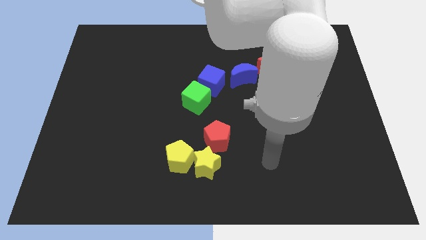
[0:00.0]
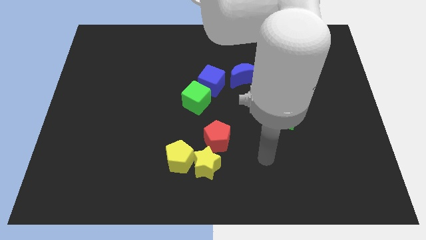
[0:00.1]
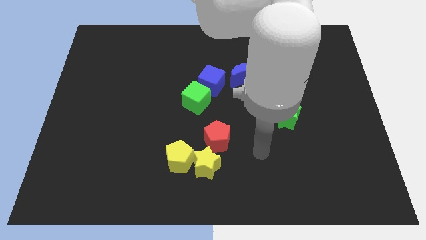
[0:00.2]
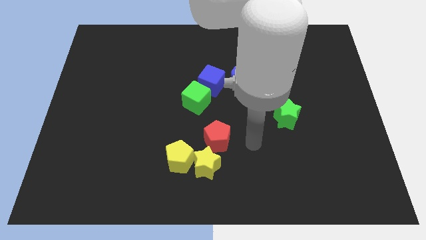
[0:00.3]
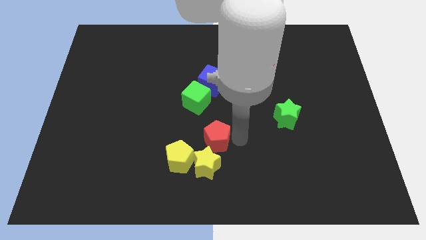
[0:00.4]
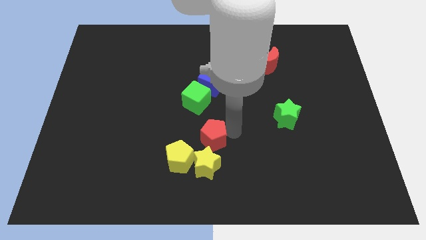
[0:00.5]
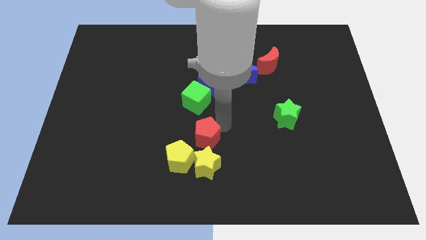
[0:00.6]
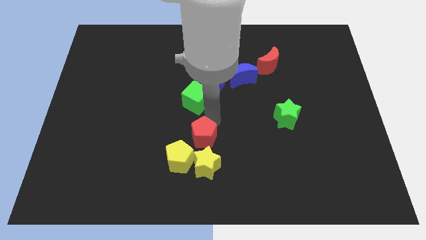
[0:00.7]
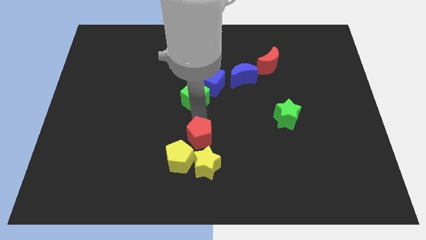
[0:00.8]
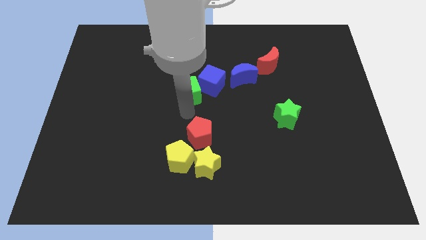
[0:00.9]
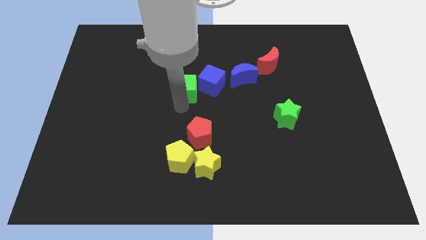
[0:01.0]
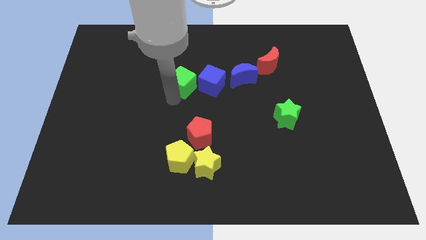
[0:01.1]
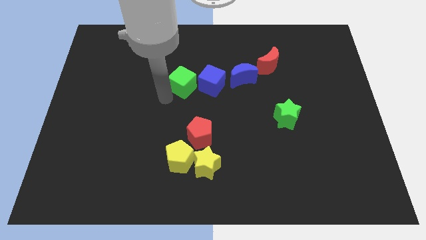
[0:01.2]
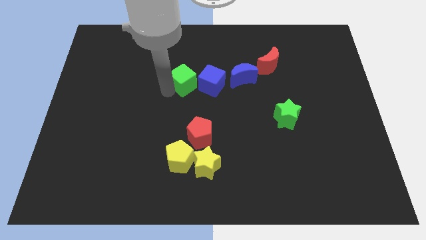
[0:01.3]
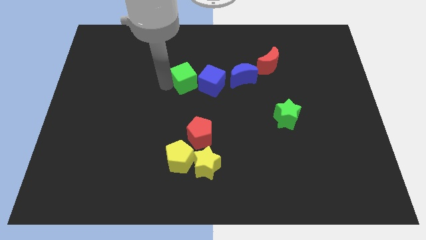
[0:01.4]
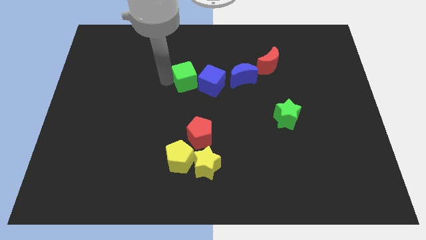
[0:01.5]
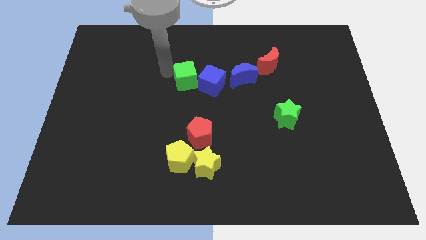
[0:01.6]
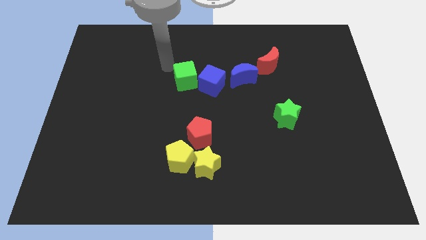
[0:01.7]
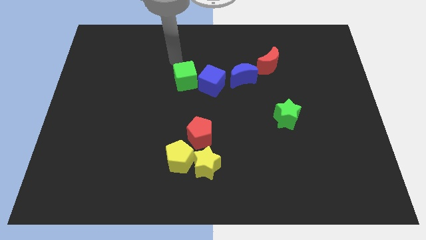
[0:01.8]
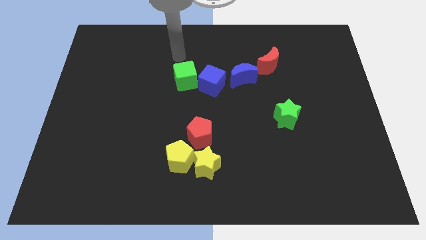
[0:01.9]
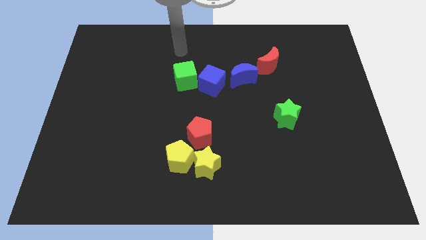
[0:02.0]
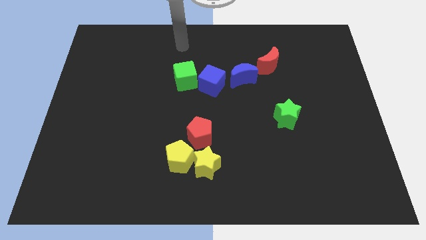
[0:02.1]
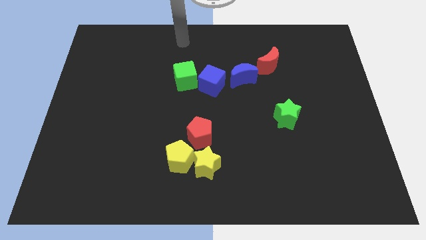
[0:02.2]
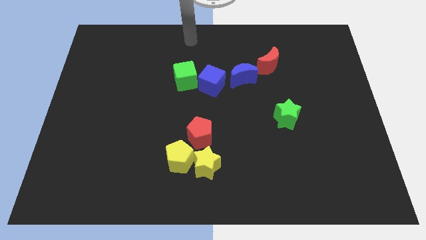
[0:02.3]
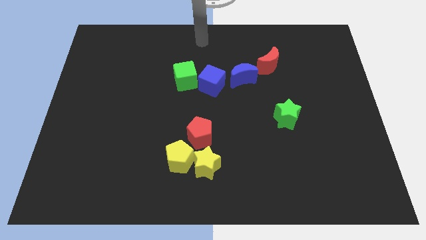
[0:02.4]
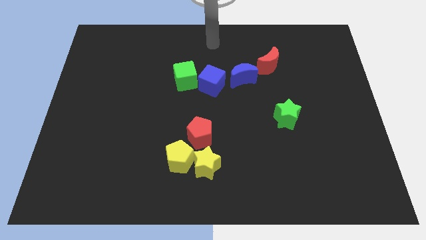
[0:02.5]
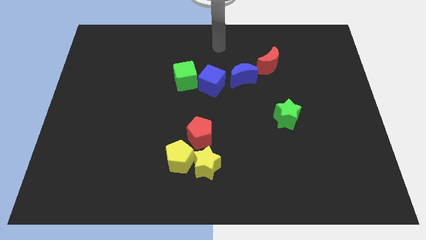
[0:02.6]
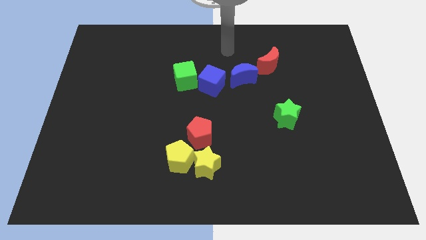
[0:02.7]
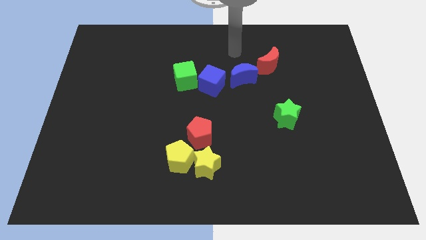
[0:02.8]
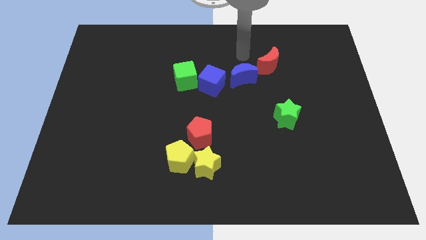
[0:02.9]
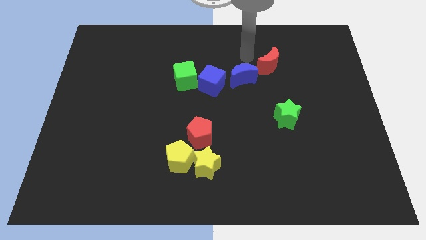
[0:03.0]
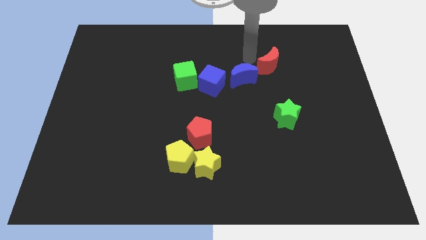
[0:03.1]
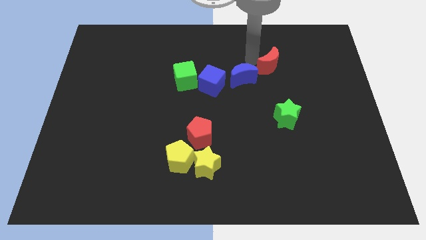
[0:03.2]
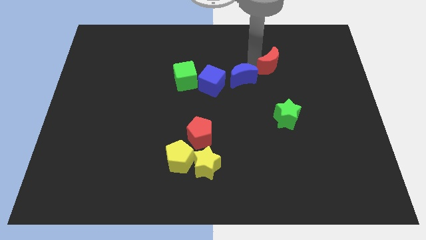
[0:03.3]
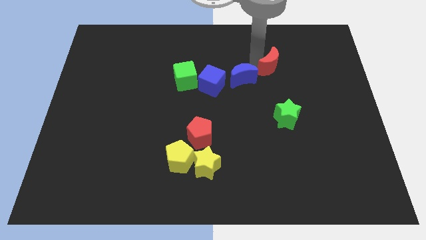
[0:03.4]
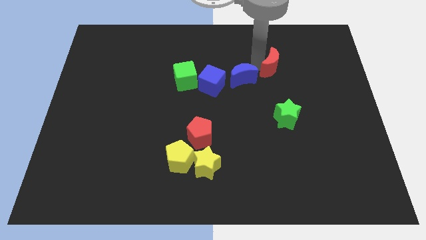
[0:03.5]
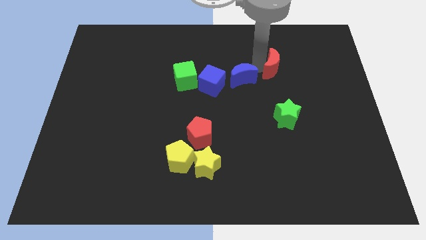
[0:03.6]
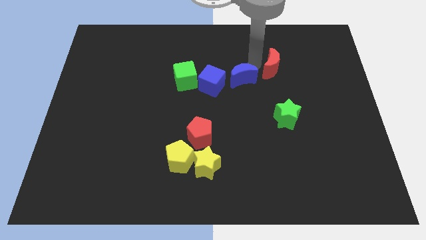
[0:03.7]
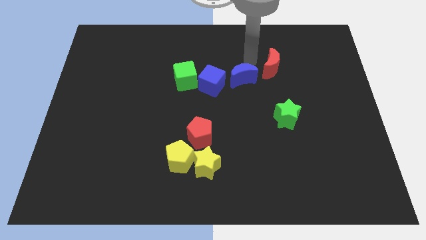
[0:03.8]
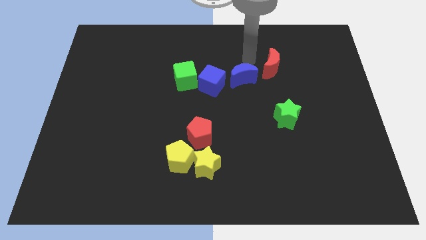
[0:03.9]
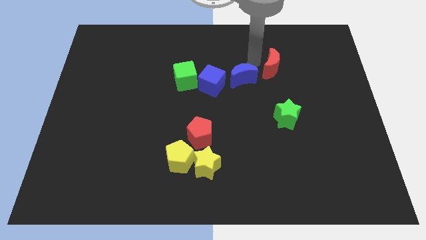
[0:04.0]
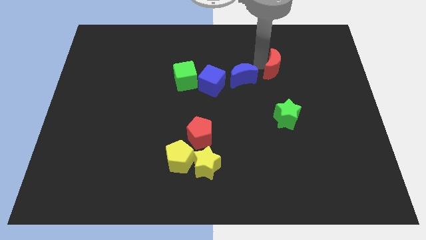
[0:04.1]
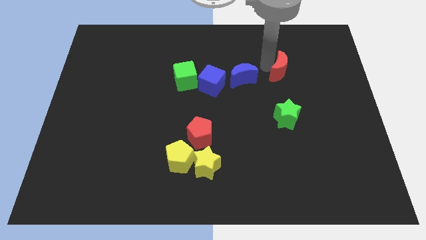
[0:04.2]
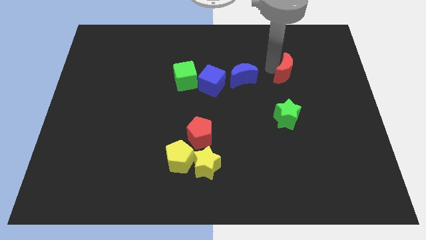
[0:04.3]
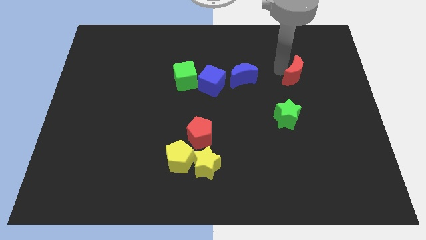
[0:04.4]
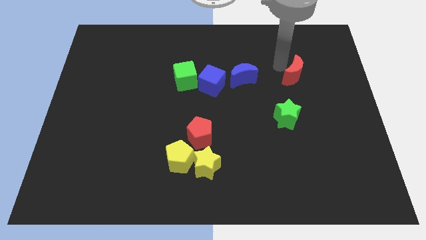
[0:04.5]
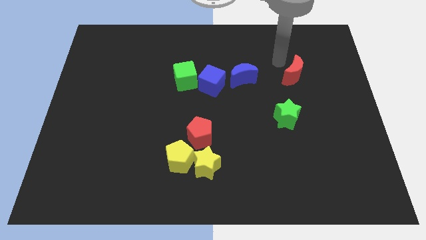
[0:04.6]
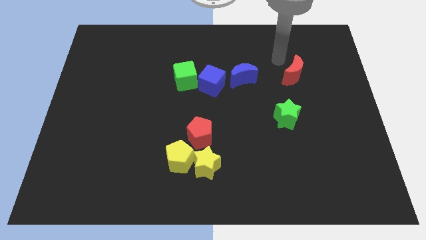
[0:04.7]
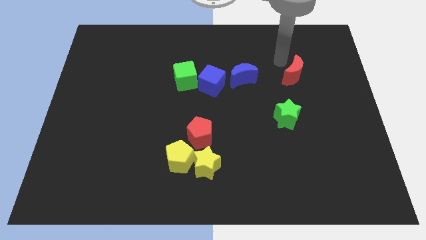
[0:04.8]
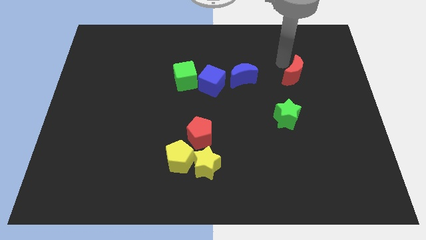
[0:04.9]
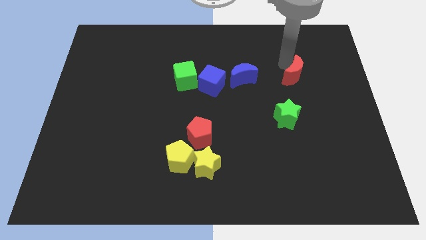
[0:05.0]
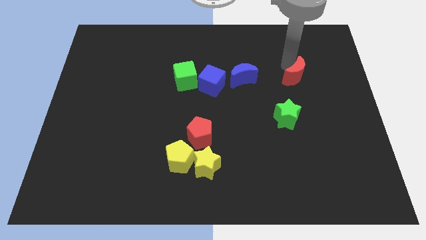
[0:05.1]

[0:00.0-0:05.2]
slide the red moon a little downwards and right

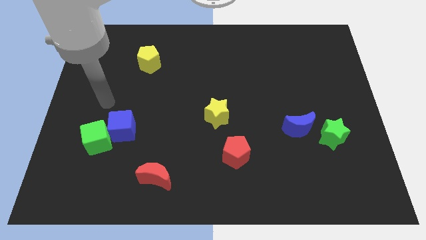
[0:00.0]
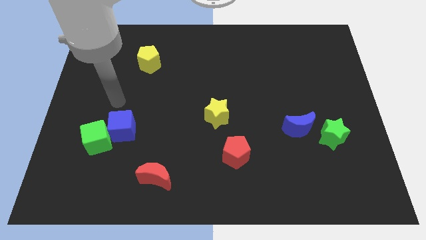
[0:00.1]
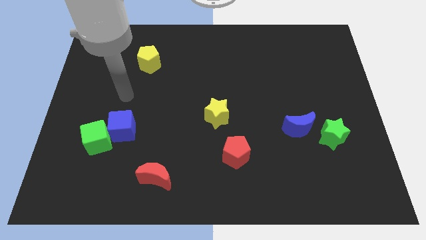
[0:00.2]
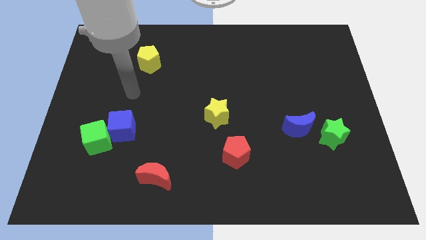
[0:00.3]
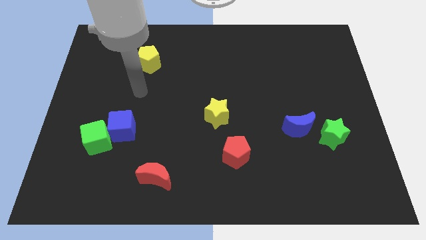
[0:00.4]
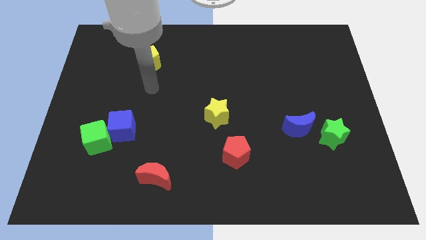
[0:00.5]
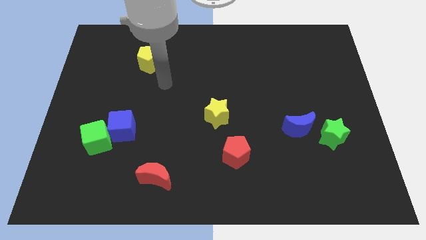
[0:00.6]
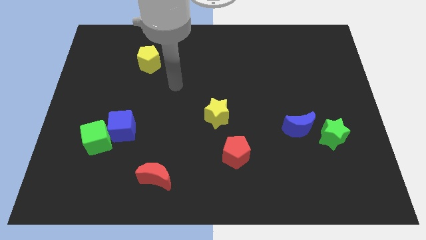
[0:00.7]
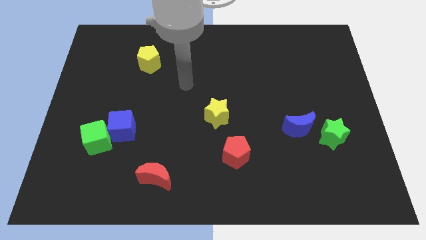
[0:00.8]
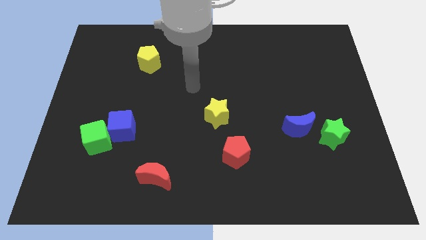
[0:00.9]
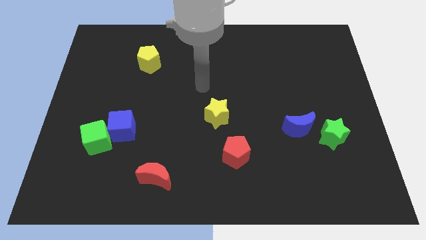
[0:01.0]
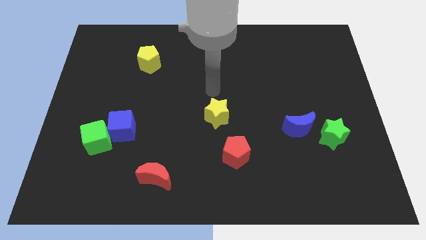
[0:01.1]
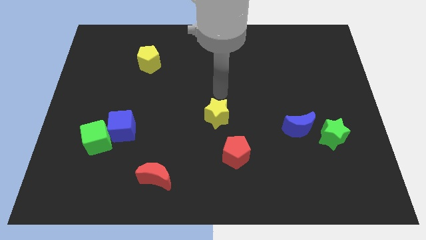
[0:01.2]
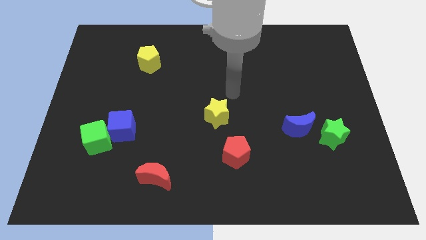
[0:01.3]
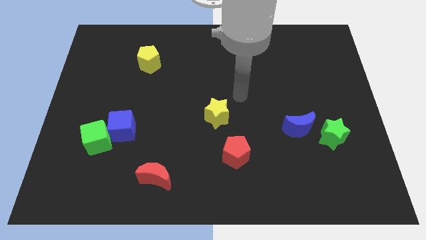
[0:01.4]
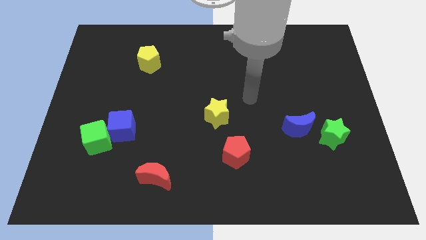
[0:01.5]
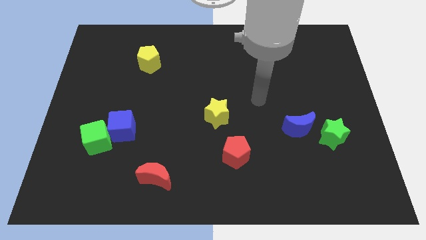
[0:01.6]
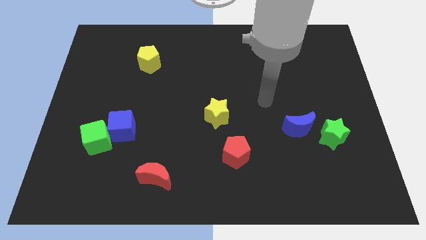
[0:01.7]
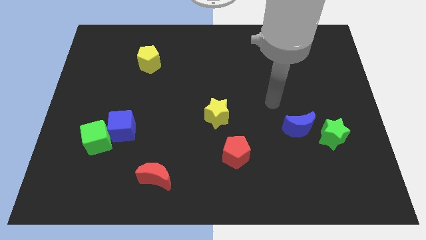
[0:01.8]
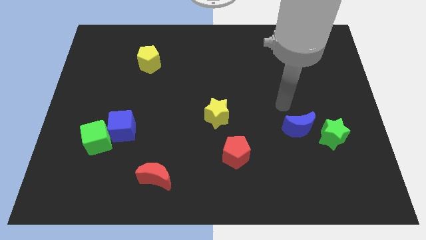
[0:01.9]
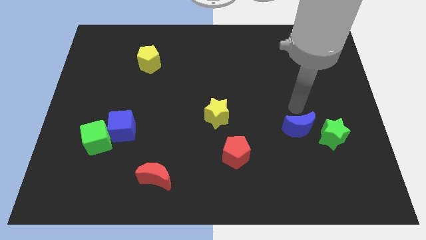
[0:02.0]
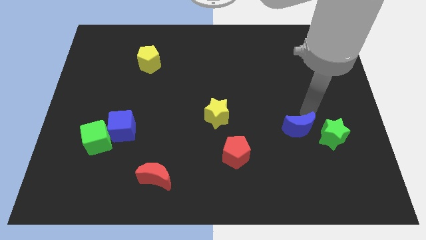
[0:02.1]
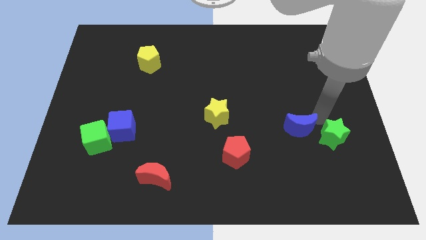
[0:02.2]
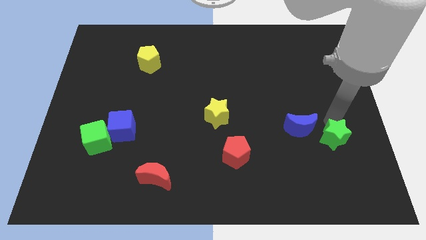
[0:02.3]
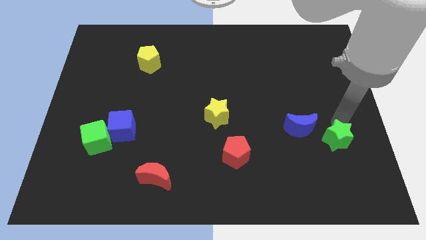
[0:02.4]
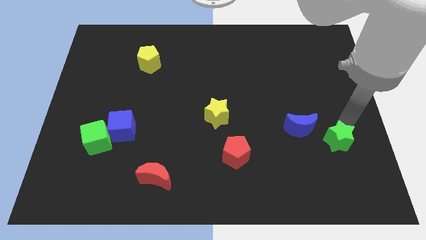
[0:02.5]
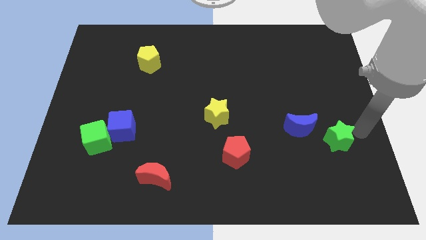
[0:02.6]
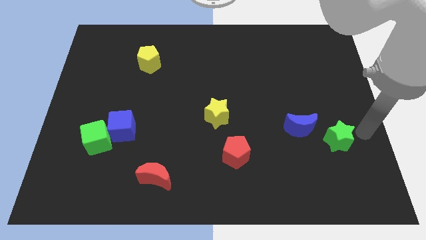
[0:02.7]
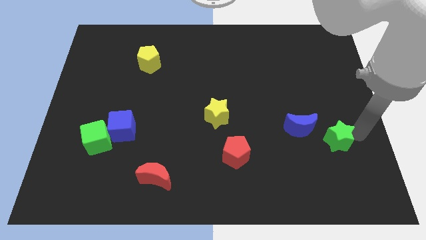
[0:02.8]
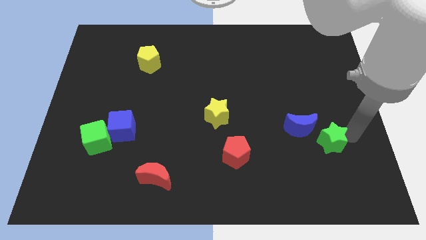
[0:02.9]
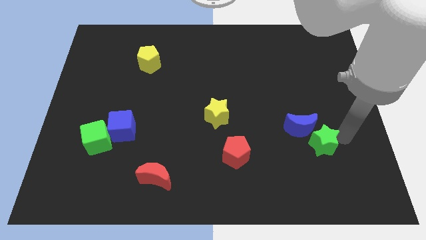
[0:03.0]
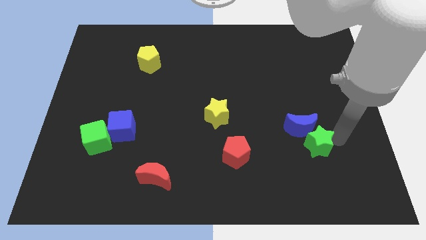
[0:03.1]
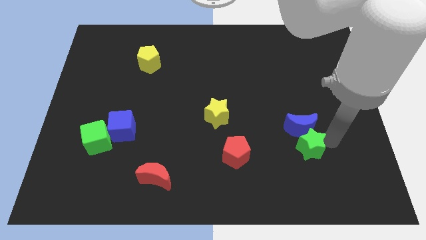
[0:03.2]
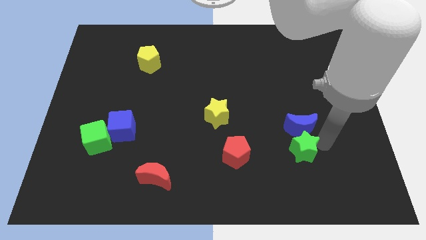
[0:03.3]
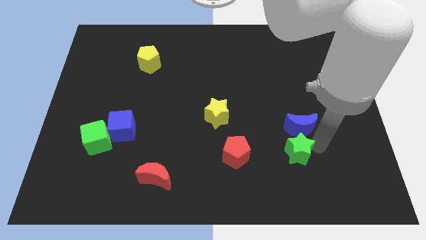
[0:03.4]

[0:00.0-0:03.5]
slide the green star slightly to the left
